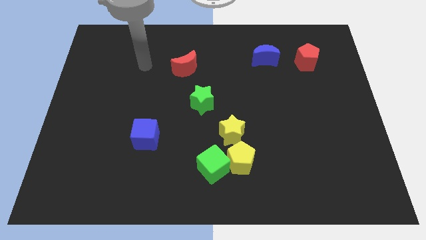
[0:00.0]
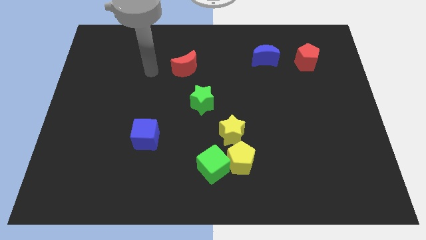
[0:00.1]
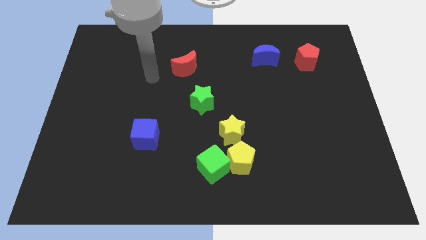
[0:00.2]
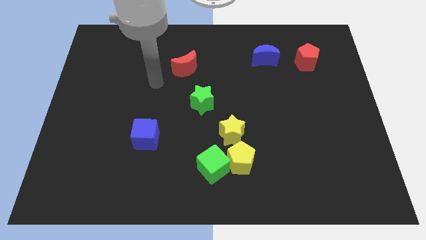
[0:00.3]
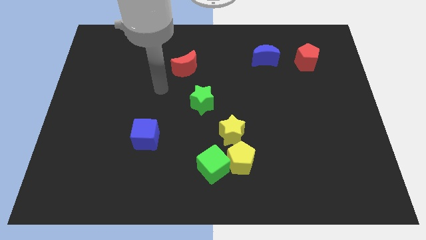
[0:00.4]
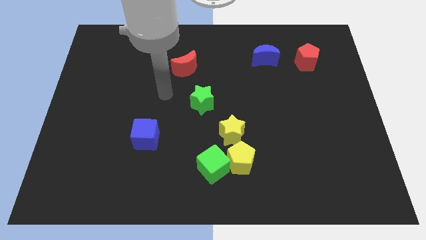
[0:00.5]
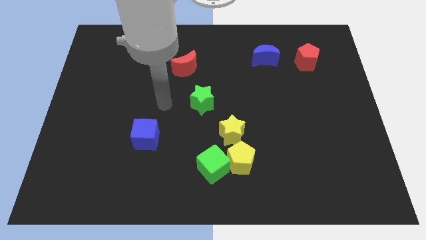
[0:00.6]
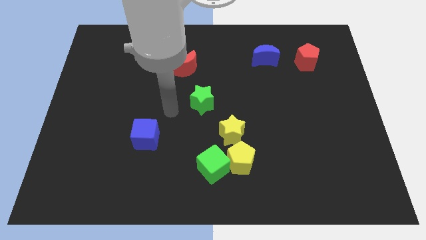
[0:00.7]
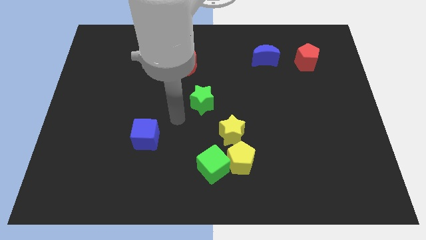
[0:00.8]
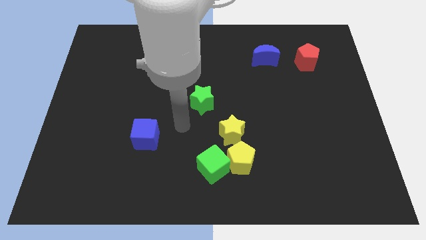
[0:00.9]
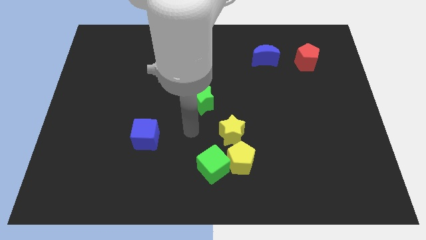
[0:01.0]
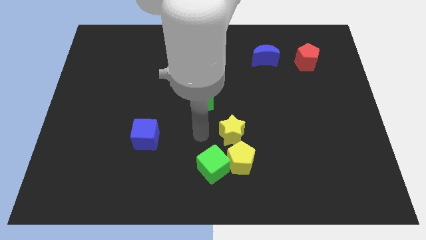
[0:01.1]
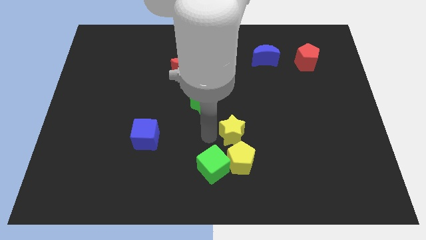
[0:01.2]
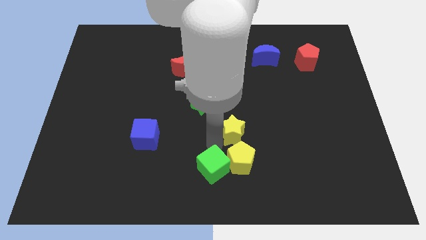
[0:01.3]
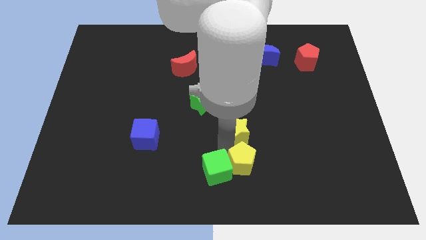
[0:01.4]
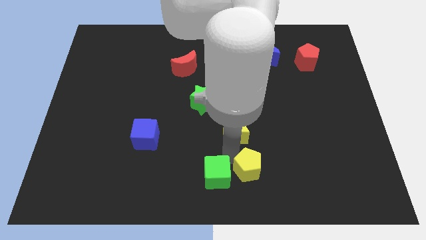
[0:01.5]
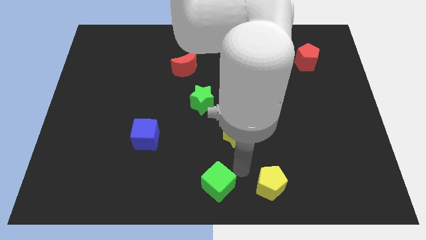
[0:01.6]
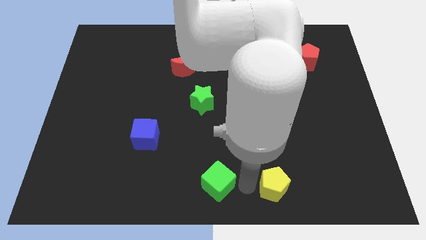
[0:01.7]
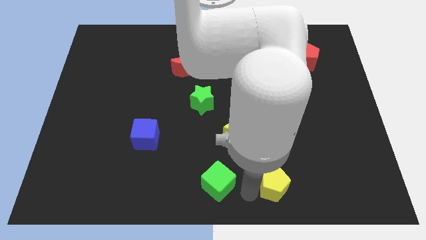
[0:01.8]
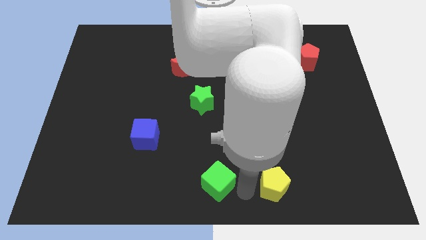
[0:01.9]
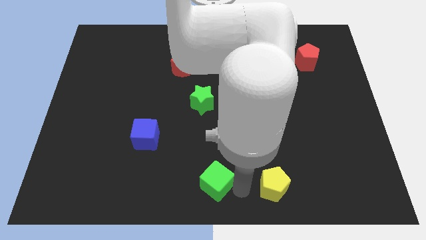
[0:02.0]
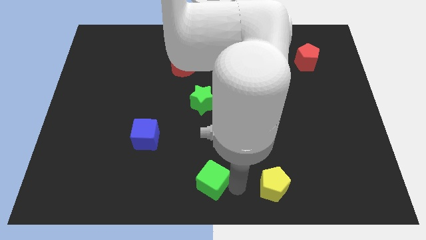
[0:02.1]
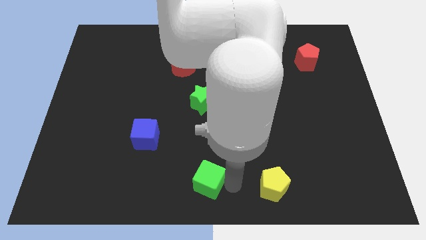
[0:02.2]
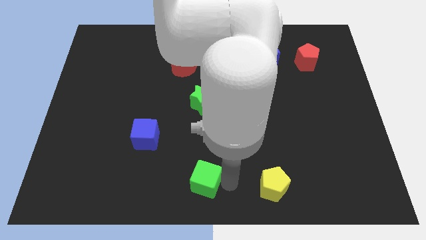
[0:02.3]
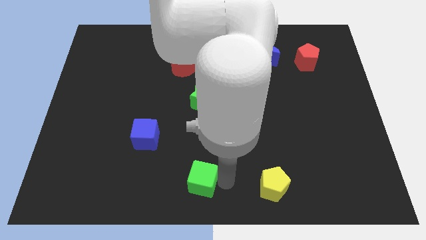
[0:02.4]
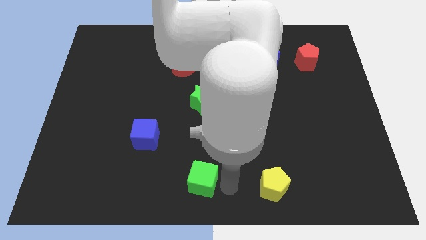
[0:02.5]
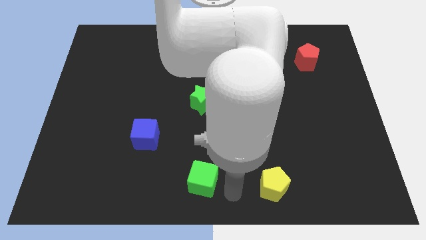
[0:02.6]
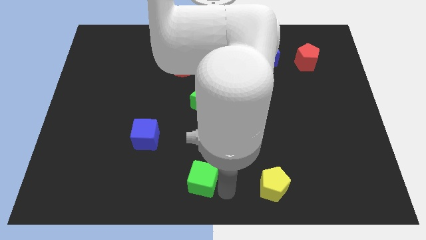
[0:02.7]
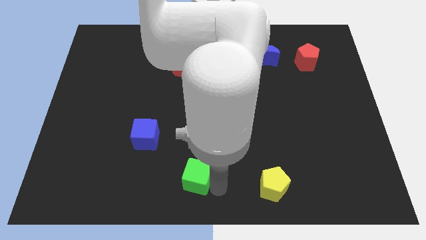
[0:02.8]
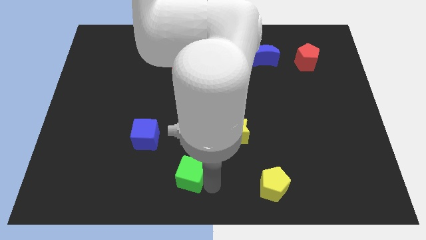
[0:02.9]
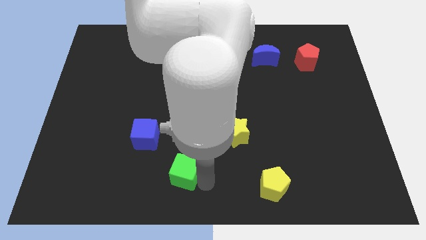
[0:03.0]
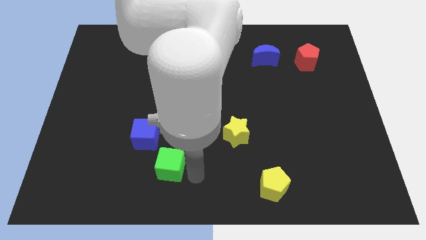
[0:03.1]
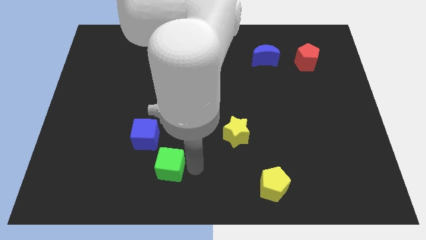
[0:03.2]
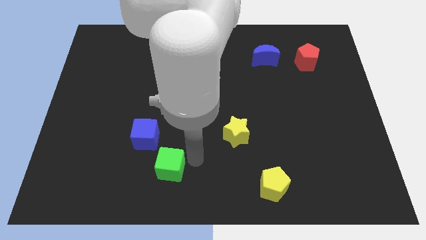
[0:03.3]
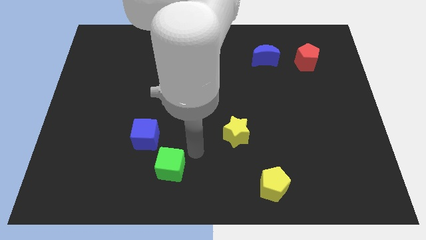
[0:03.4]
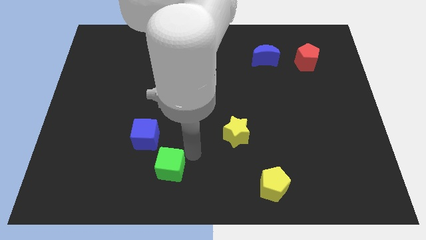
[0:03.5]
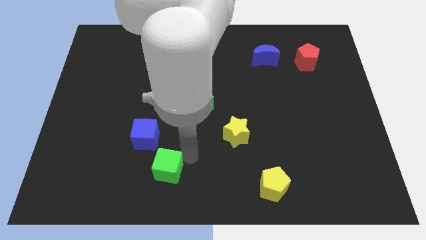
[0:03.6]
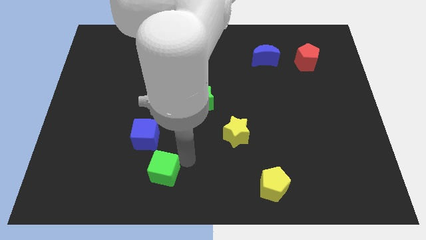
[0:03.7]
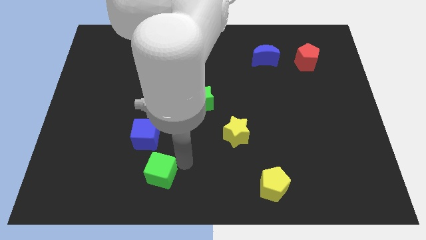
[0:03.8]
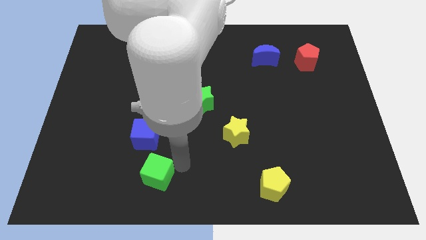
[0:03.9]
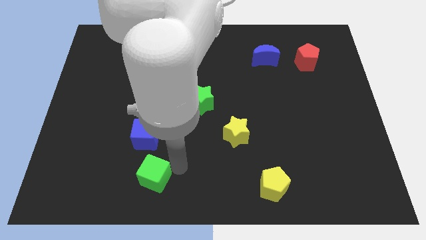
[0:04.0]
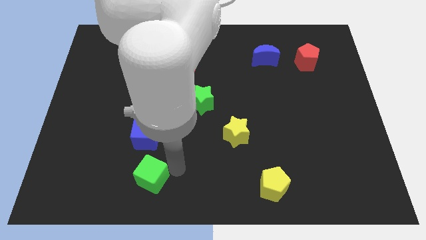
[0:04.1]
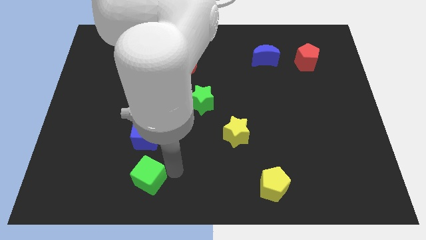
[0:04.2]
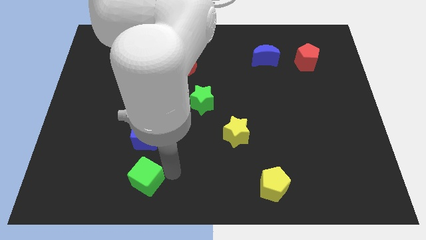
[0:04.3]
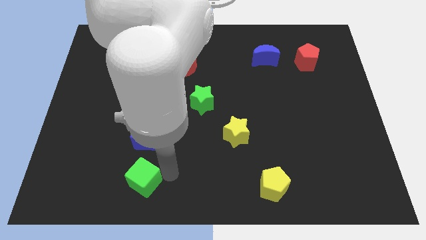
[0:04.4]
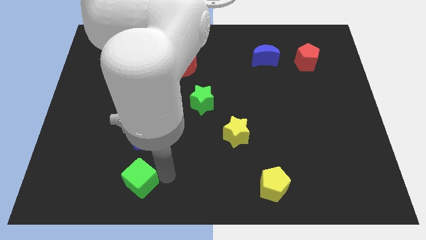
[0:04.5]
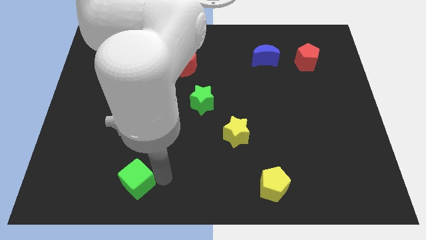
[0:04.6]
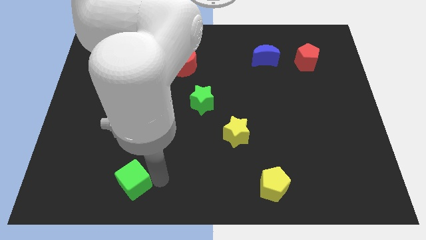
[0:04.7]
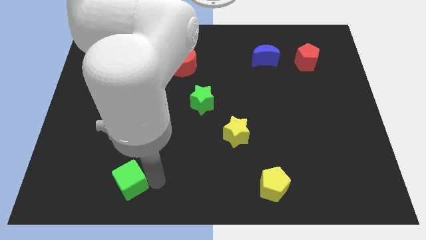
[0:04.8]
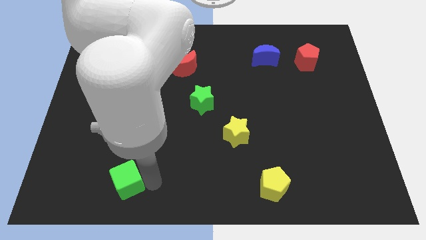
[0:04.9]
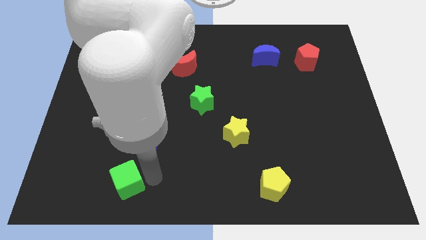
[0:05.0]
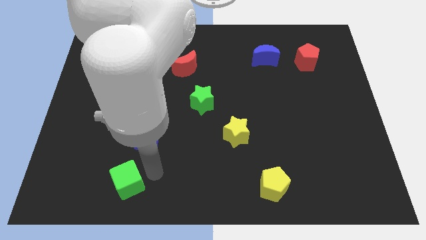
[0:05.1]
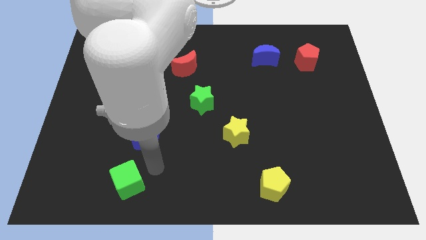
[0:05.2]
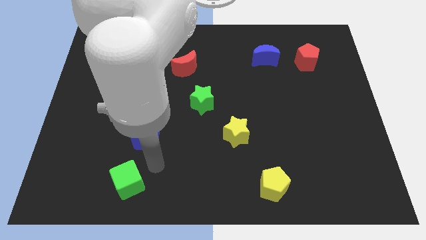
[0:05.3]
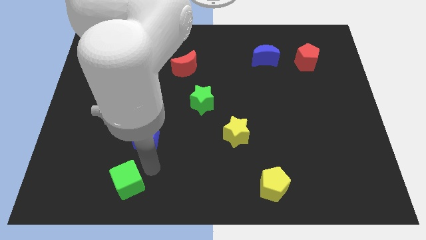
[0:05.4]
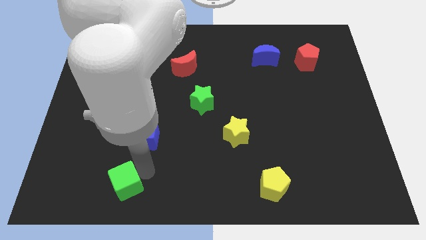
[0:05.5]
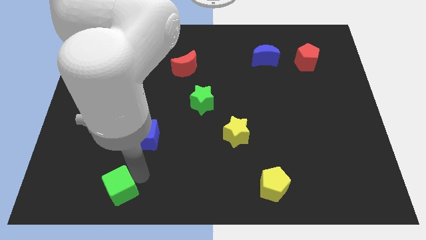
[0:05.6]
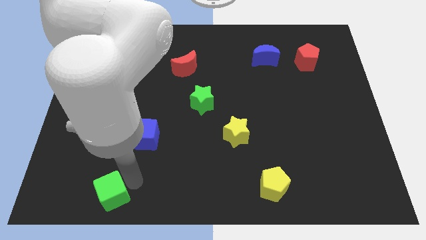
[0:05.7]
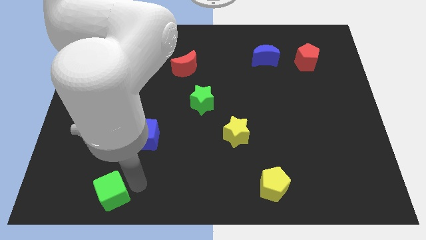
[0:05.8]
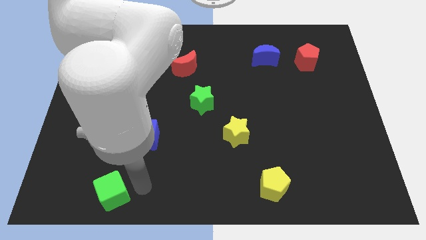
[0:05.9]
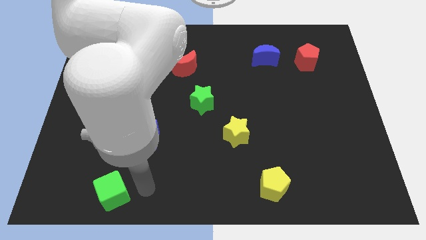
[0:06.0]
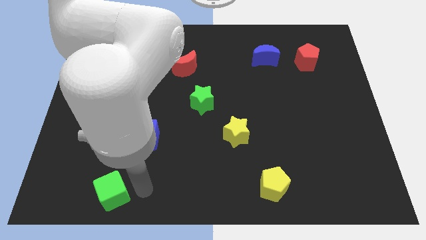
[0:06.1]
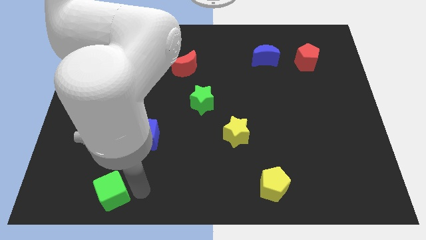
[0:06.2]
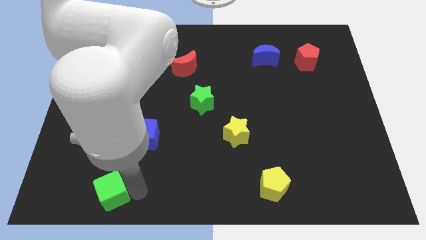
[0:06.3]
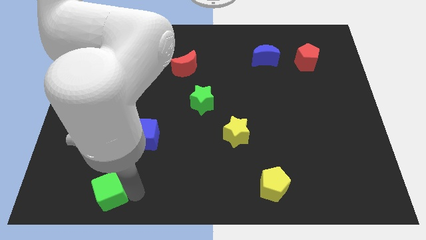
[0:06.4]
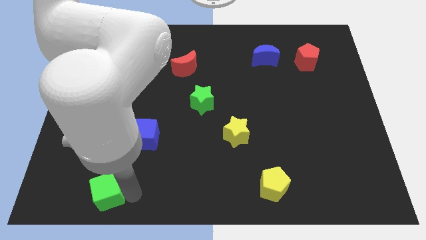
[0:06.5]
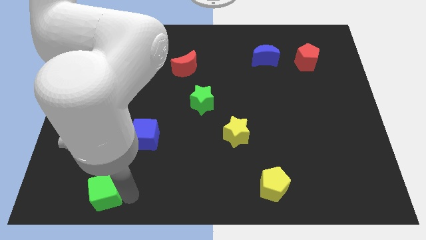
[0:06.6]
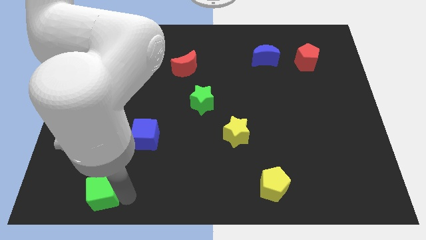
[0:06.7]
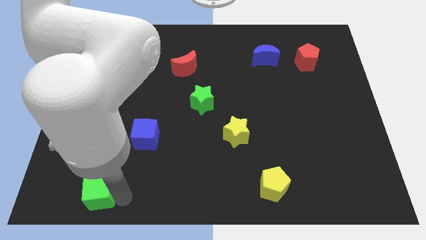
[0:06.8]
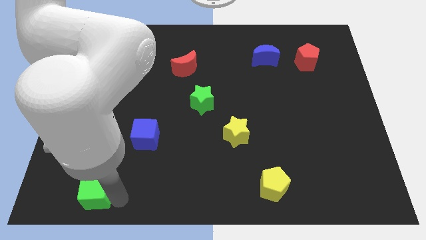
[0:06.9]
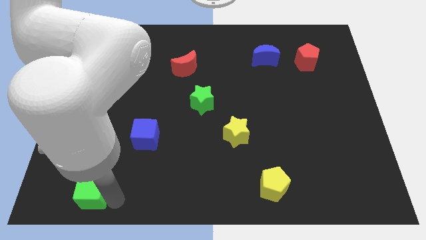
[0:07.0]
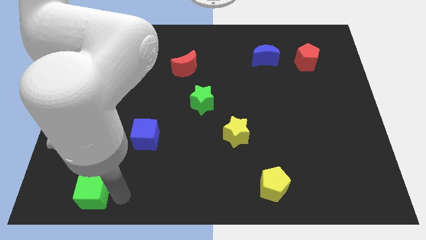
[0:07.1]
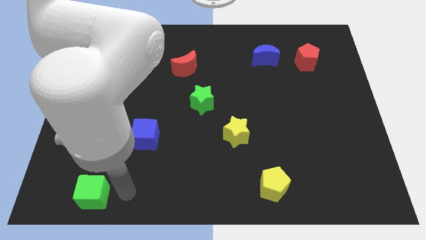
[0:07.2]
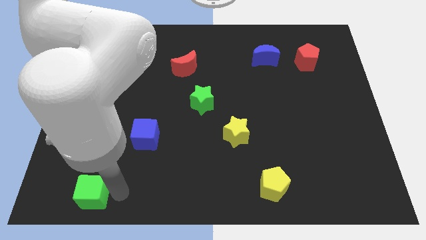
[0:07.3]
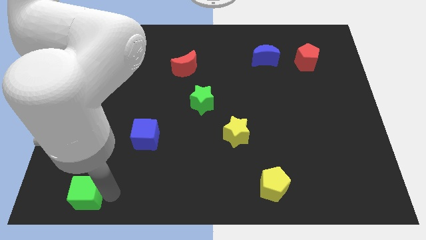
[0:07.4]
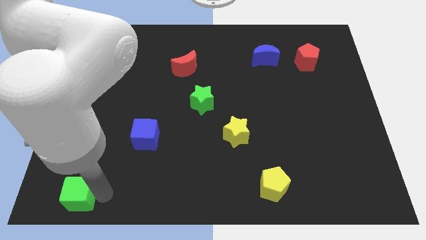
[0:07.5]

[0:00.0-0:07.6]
slide the green cube to the lower left corner
